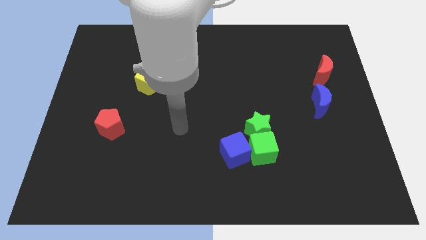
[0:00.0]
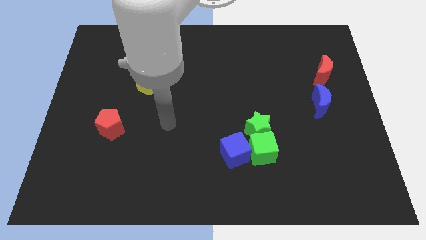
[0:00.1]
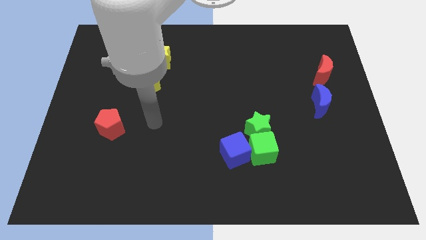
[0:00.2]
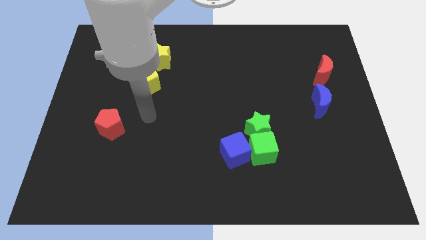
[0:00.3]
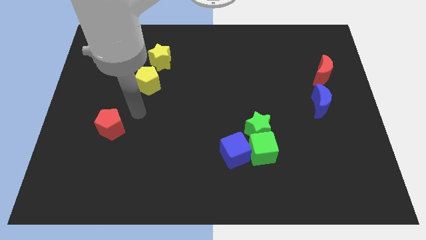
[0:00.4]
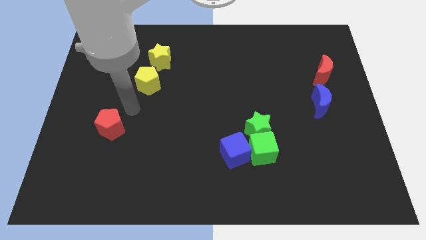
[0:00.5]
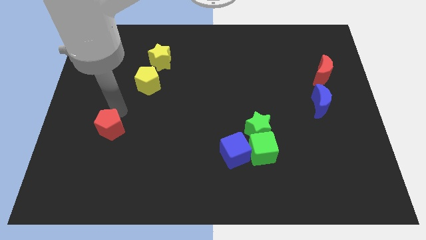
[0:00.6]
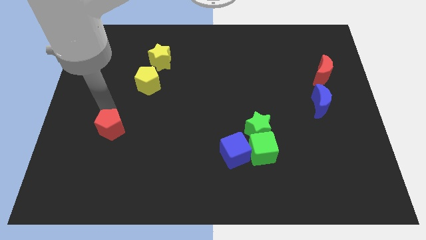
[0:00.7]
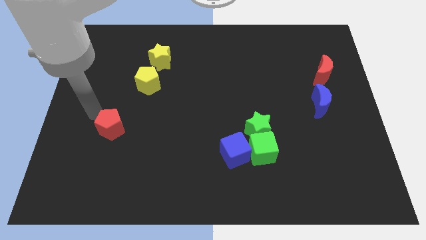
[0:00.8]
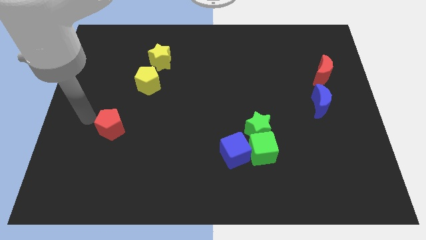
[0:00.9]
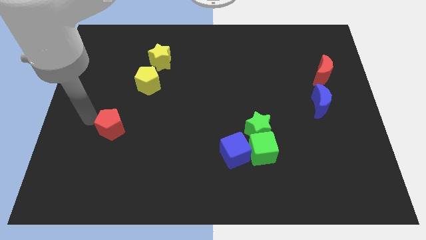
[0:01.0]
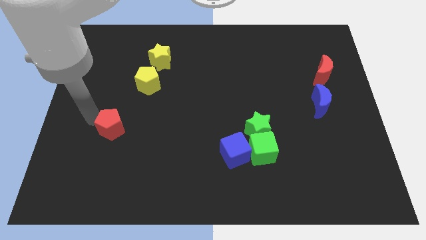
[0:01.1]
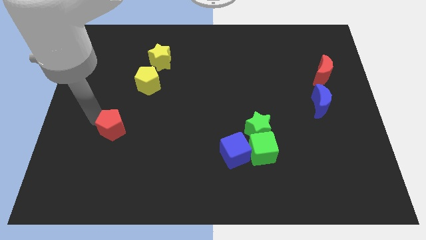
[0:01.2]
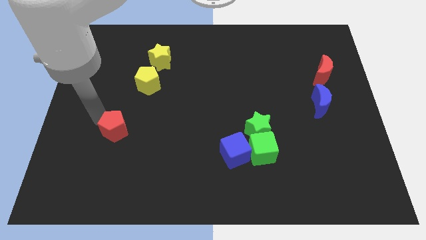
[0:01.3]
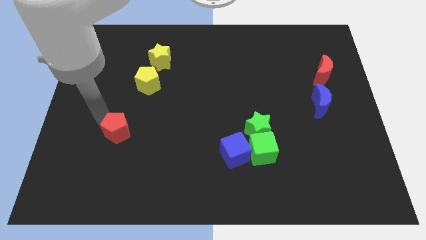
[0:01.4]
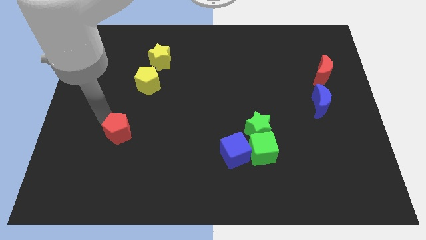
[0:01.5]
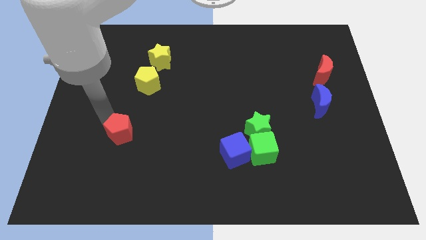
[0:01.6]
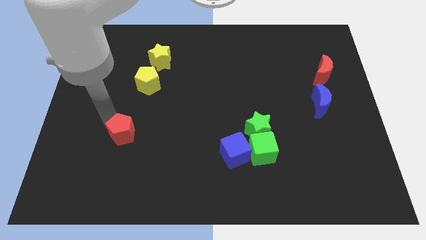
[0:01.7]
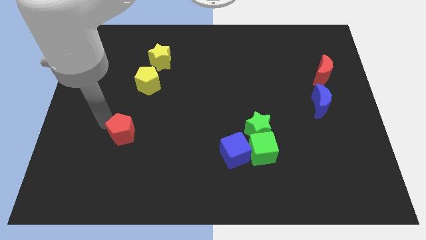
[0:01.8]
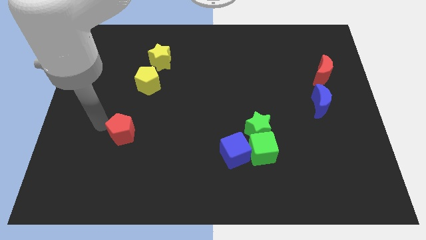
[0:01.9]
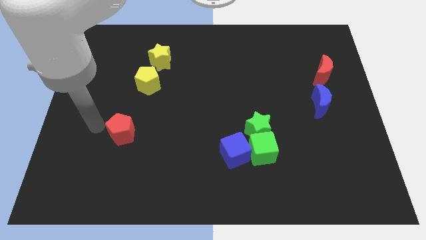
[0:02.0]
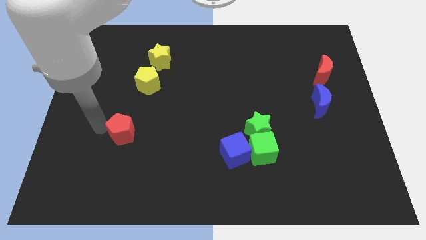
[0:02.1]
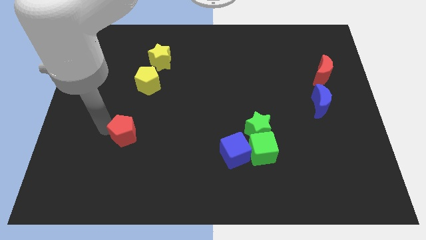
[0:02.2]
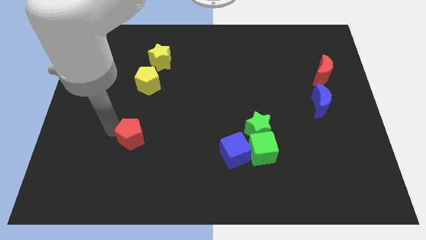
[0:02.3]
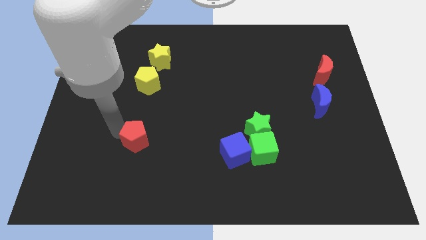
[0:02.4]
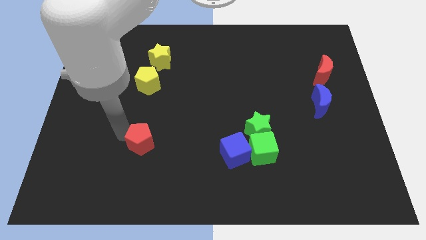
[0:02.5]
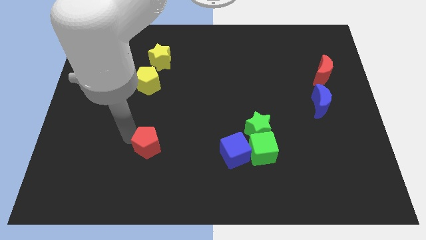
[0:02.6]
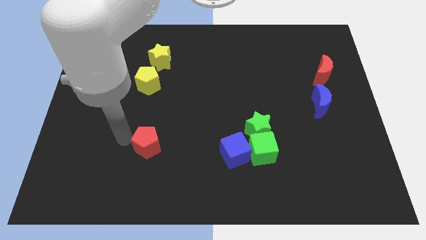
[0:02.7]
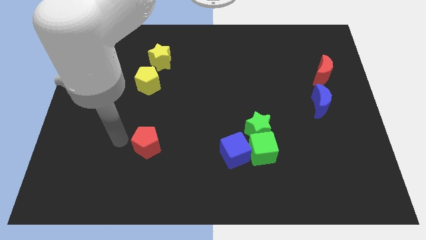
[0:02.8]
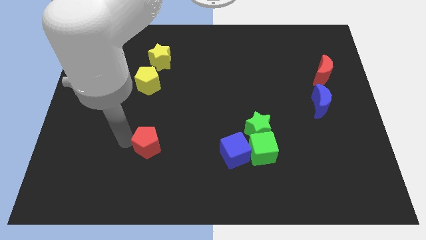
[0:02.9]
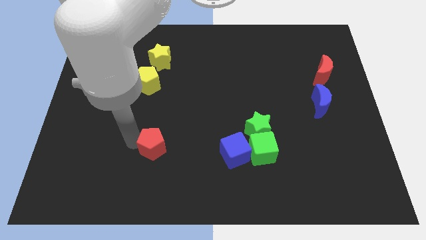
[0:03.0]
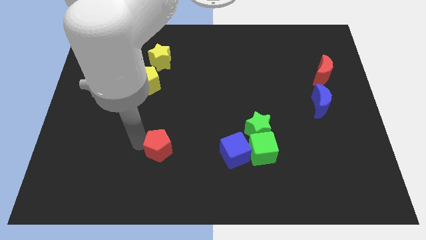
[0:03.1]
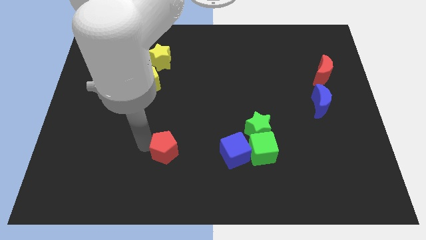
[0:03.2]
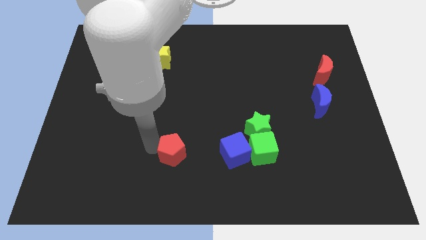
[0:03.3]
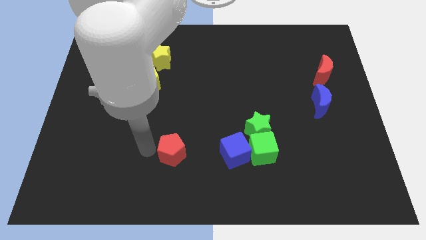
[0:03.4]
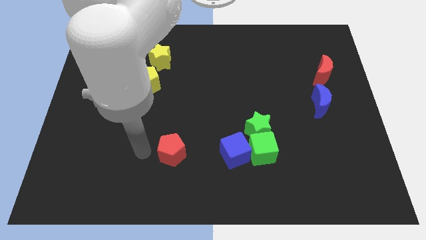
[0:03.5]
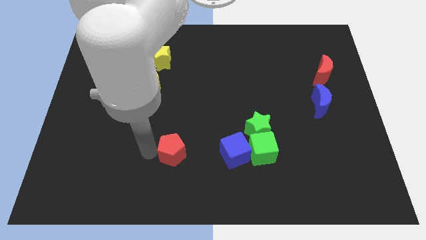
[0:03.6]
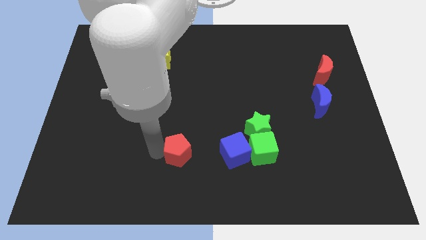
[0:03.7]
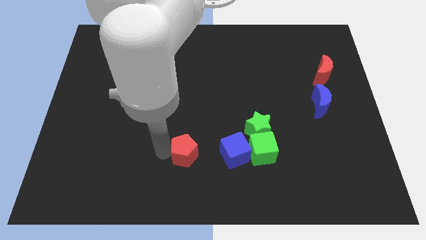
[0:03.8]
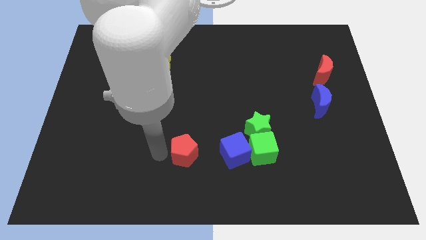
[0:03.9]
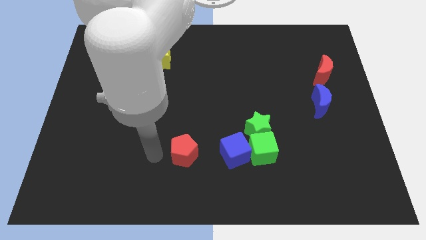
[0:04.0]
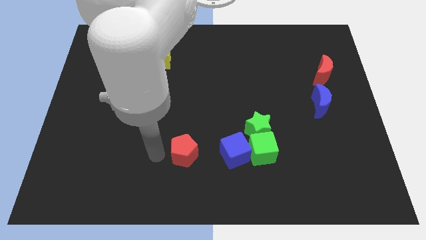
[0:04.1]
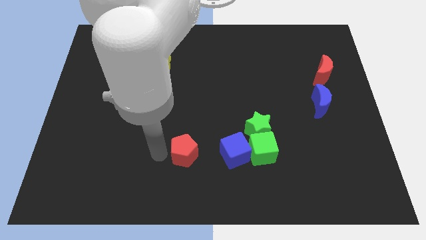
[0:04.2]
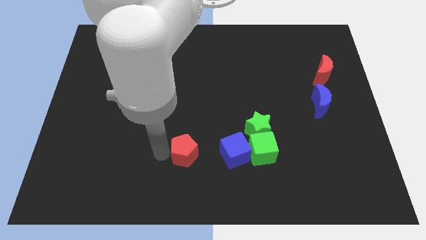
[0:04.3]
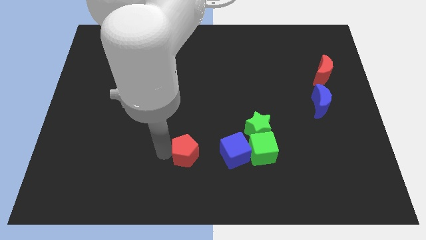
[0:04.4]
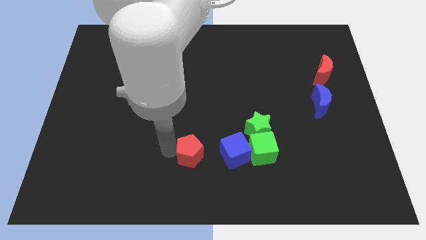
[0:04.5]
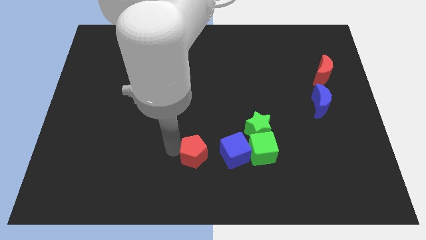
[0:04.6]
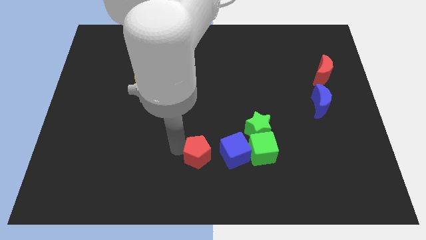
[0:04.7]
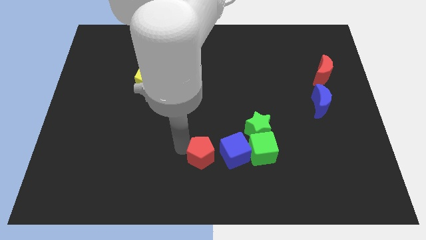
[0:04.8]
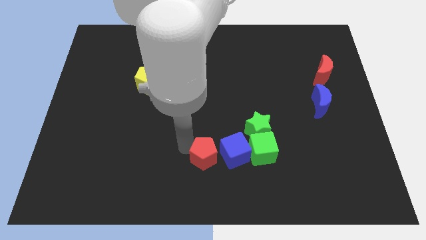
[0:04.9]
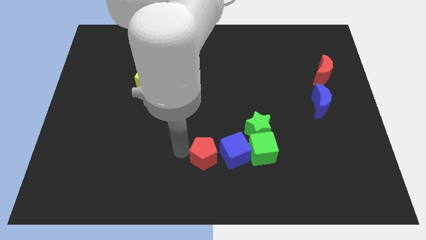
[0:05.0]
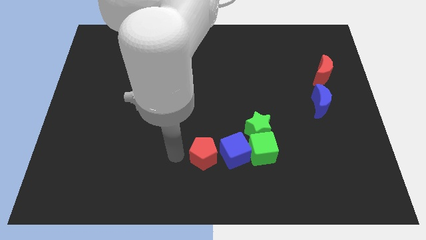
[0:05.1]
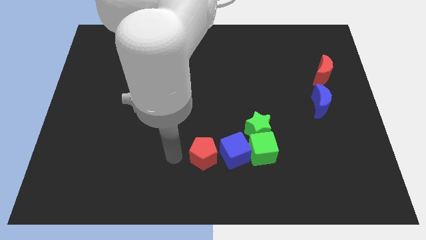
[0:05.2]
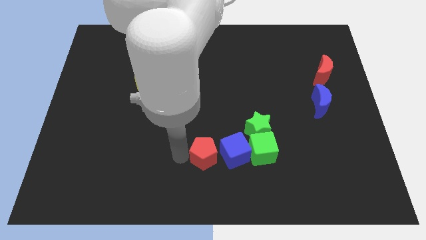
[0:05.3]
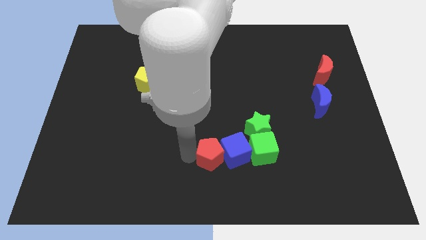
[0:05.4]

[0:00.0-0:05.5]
put the red pentagon towards the blue cube

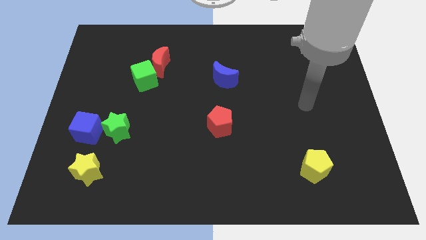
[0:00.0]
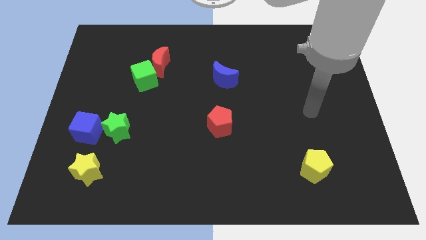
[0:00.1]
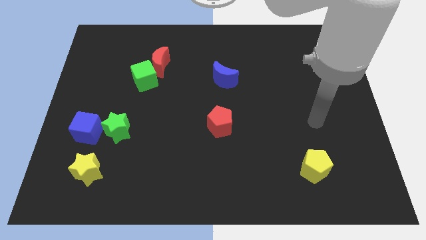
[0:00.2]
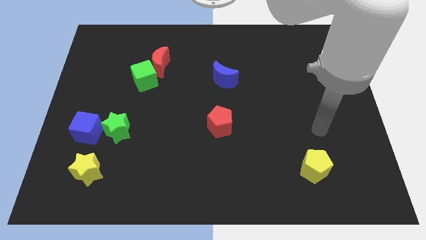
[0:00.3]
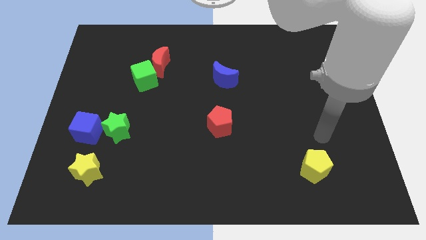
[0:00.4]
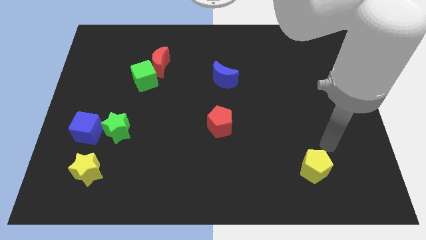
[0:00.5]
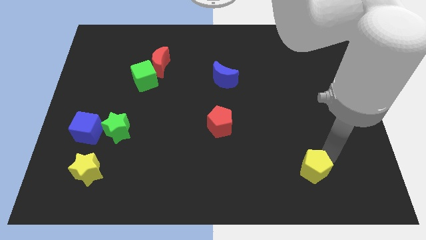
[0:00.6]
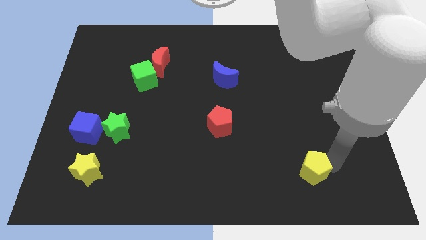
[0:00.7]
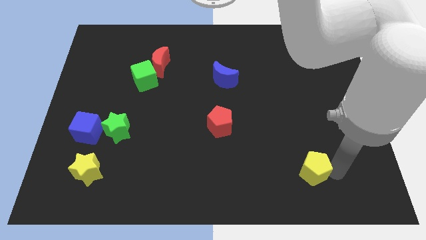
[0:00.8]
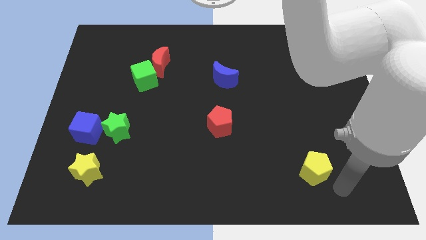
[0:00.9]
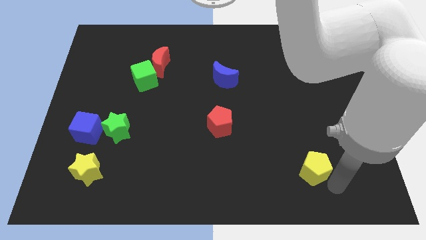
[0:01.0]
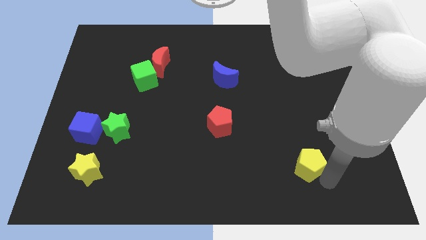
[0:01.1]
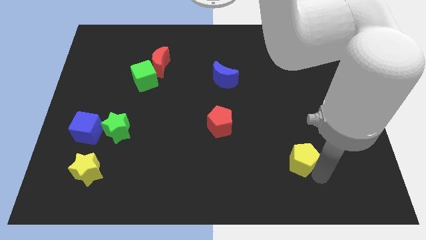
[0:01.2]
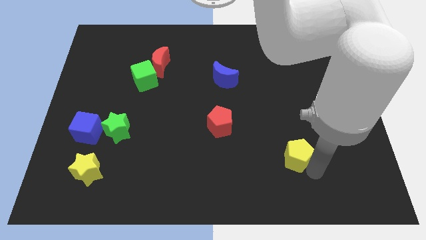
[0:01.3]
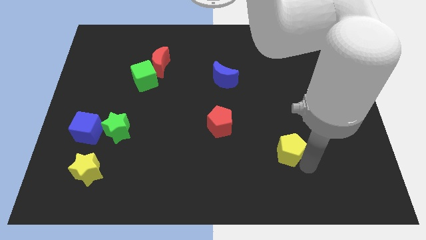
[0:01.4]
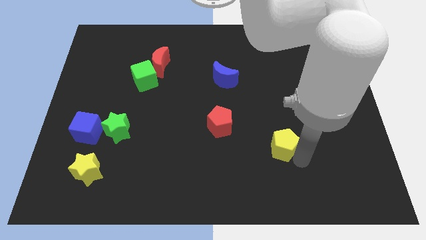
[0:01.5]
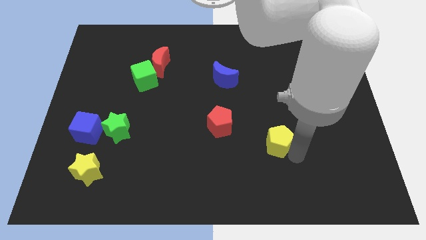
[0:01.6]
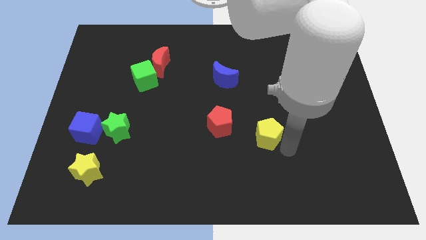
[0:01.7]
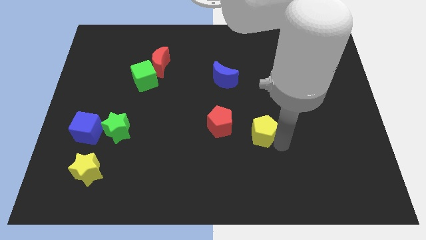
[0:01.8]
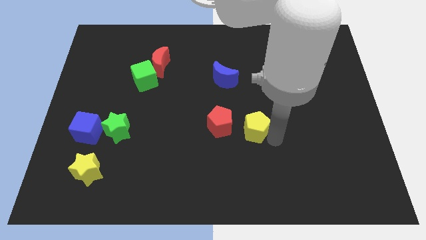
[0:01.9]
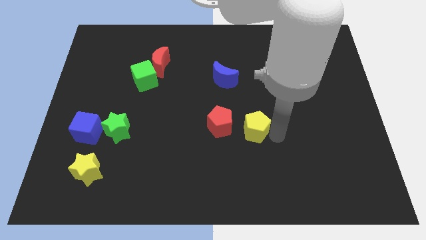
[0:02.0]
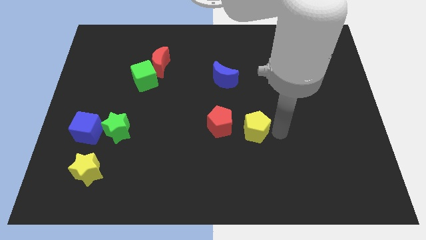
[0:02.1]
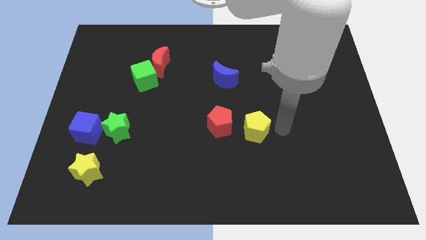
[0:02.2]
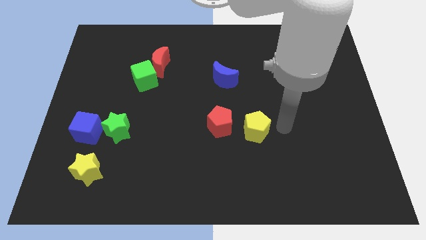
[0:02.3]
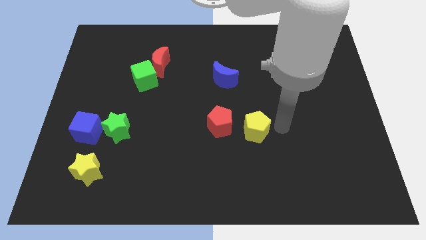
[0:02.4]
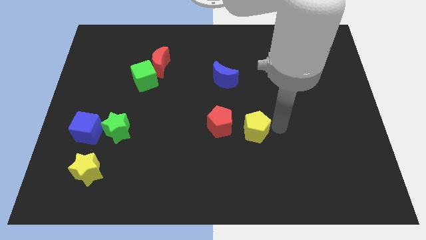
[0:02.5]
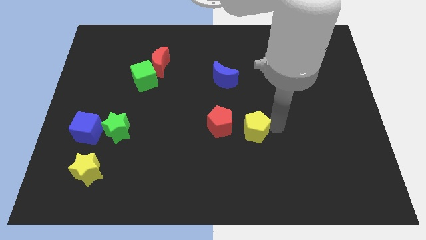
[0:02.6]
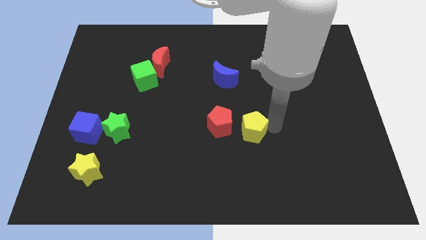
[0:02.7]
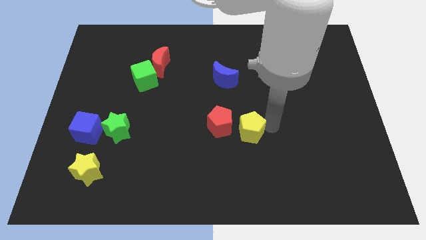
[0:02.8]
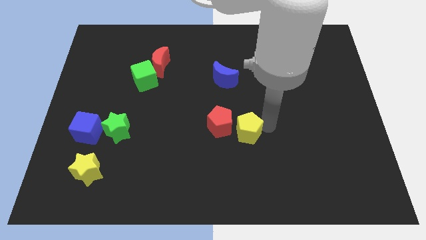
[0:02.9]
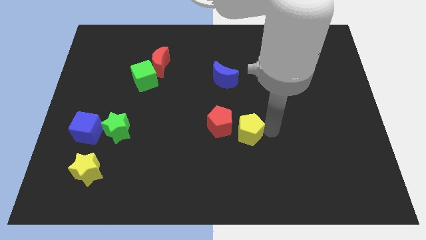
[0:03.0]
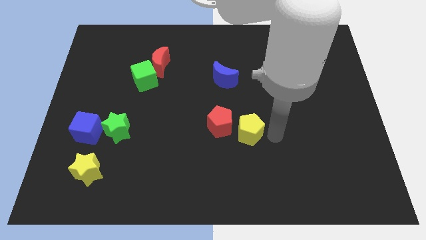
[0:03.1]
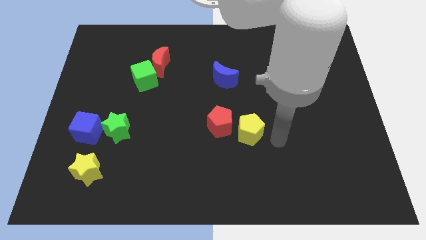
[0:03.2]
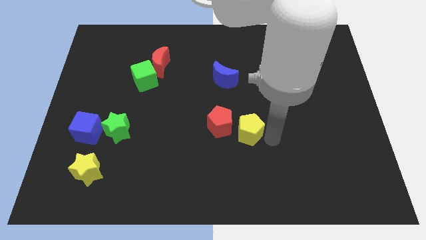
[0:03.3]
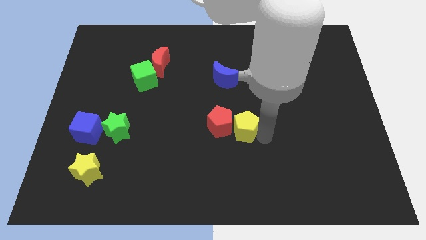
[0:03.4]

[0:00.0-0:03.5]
push the yellow pentagon close to the red pentagon
